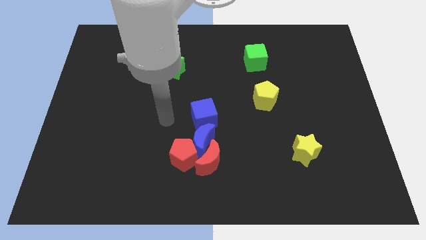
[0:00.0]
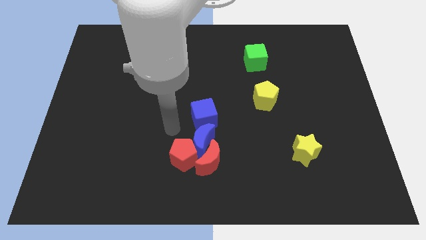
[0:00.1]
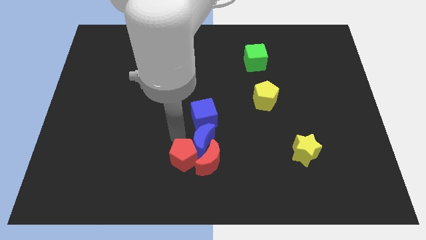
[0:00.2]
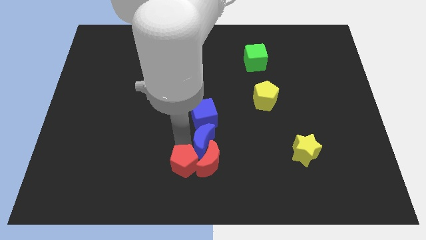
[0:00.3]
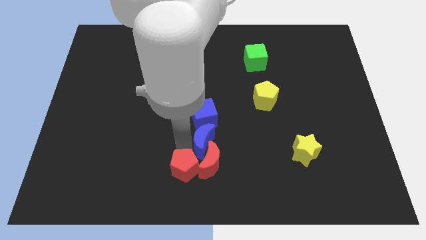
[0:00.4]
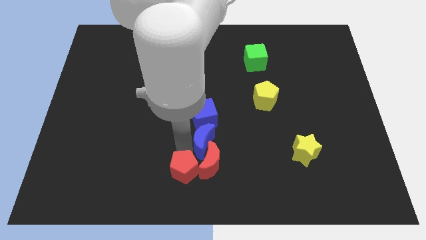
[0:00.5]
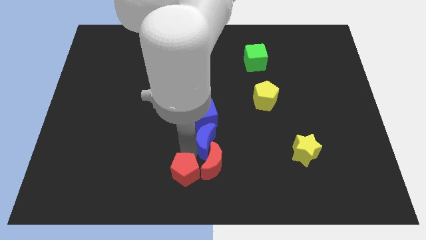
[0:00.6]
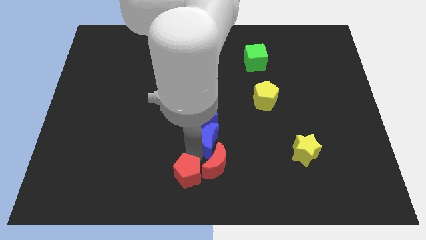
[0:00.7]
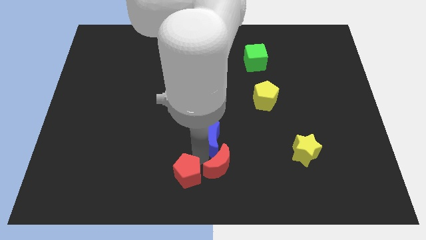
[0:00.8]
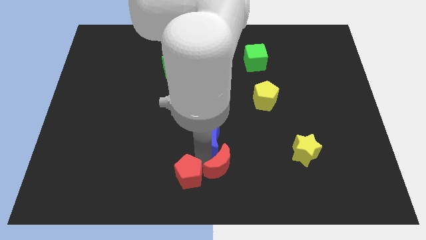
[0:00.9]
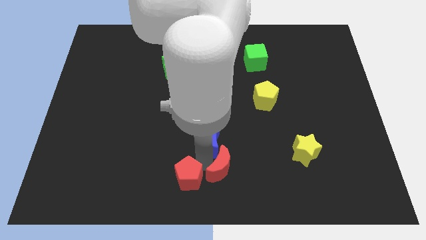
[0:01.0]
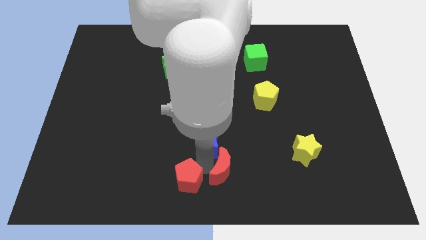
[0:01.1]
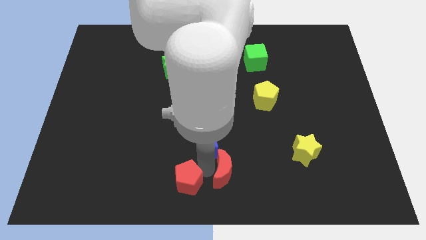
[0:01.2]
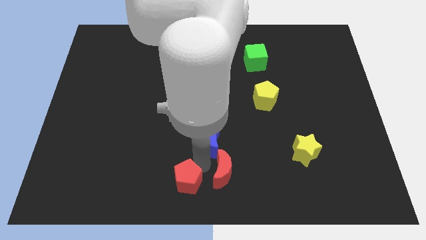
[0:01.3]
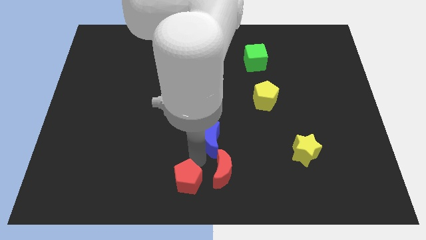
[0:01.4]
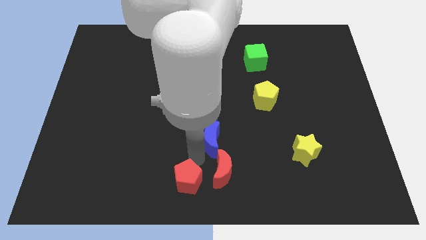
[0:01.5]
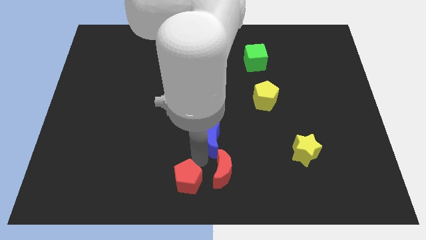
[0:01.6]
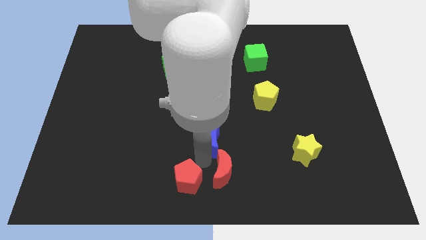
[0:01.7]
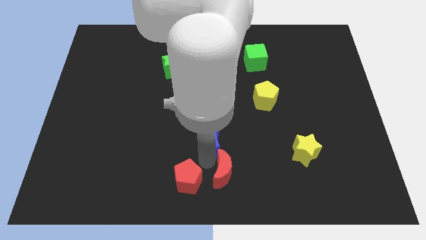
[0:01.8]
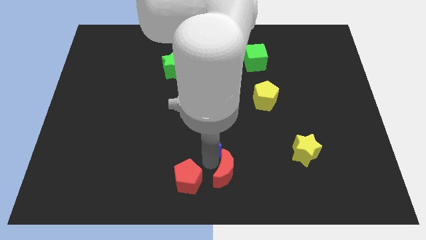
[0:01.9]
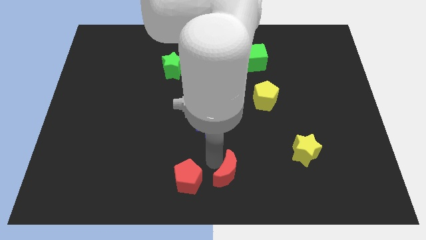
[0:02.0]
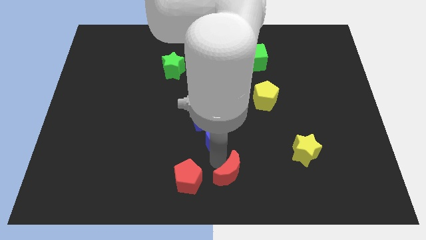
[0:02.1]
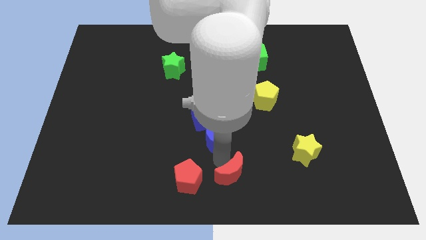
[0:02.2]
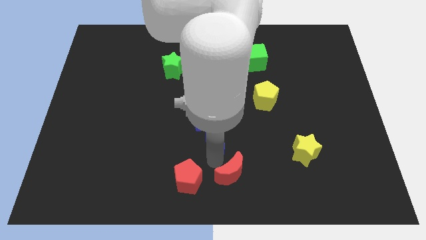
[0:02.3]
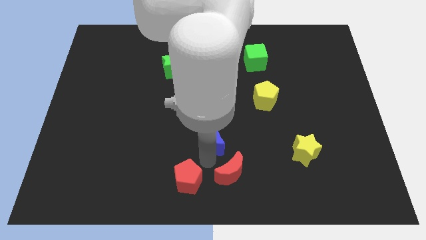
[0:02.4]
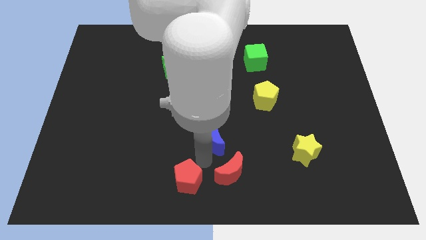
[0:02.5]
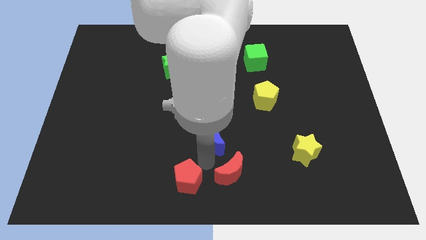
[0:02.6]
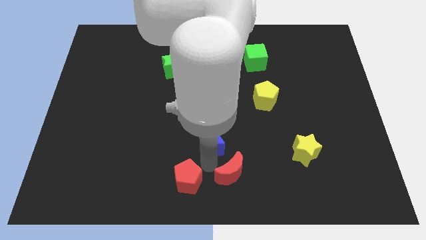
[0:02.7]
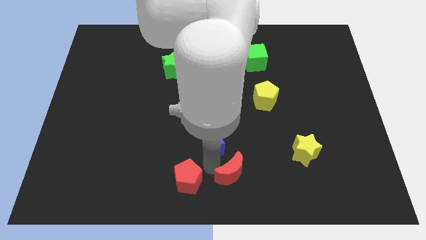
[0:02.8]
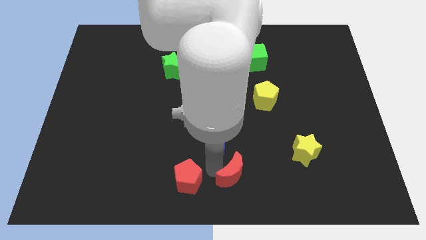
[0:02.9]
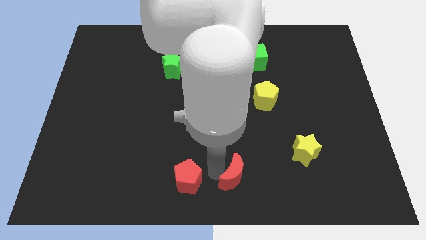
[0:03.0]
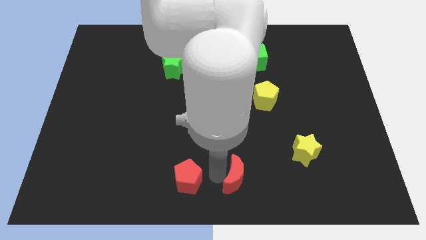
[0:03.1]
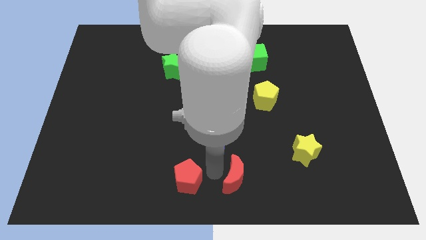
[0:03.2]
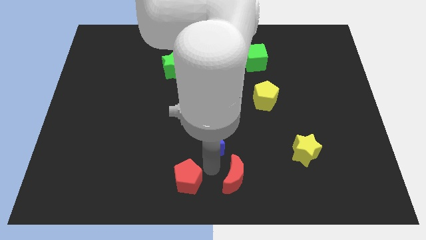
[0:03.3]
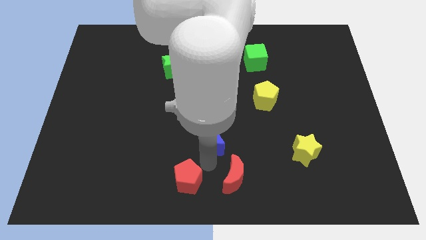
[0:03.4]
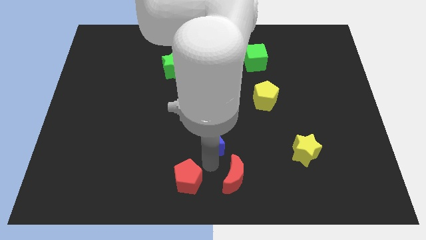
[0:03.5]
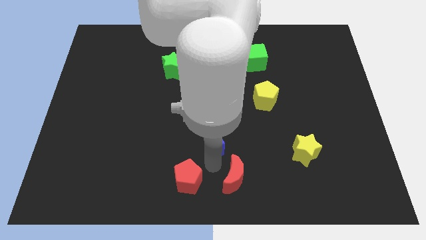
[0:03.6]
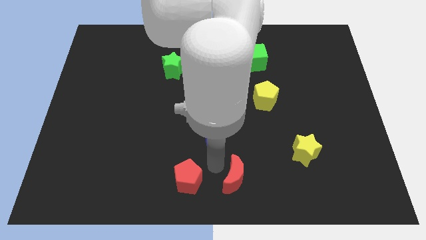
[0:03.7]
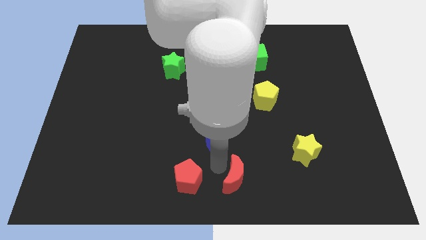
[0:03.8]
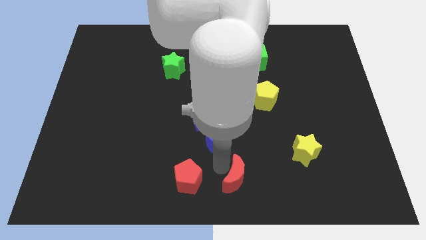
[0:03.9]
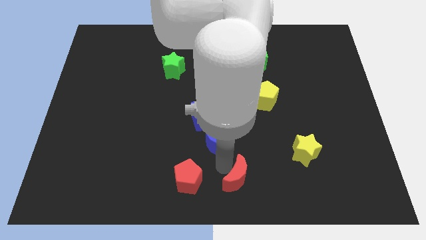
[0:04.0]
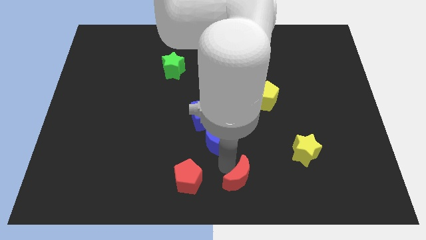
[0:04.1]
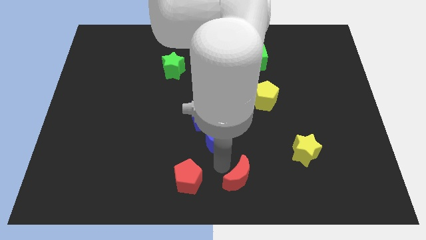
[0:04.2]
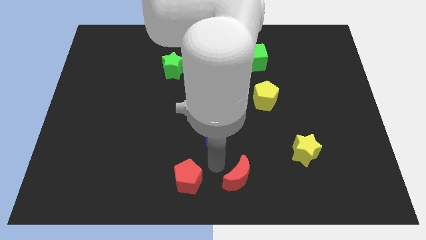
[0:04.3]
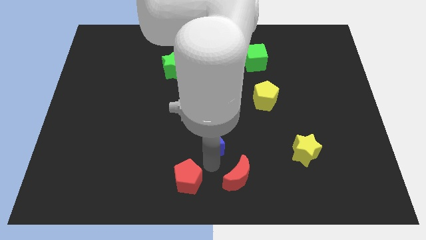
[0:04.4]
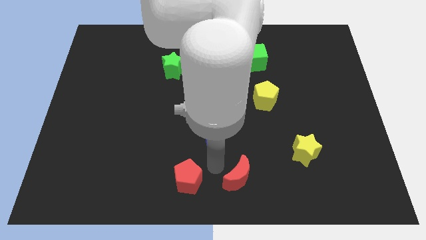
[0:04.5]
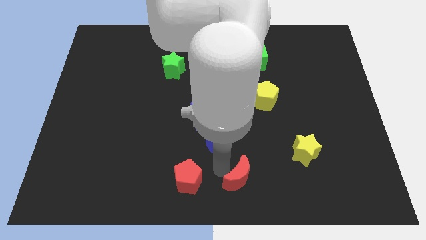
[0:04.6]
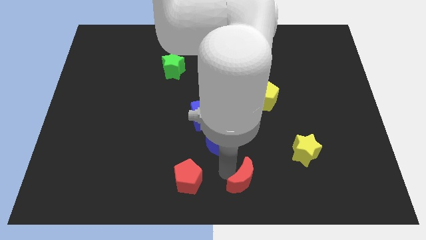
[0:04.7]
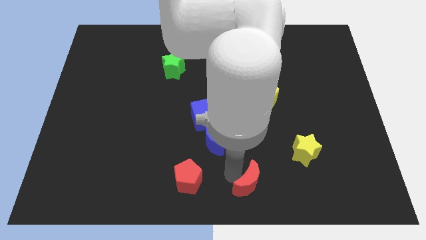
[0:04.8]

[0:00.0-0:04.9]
separate the red moon from the blue moon and red pentagon

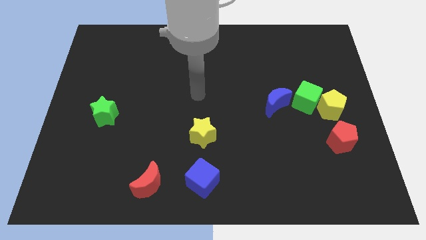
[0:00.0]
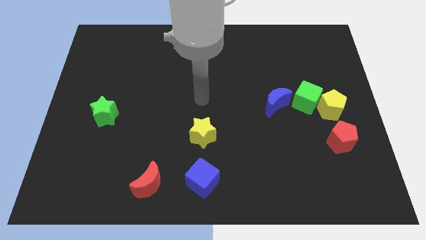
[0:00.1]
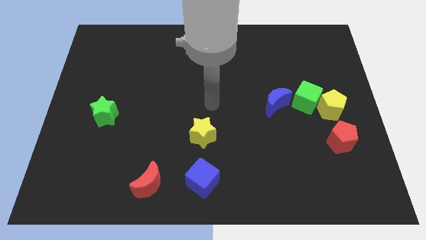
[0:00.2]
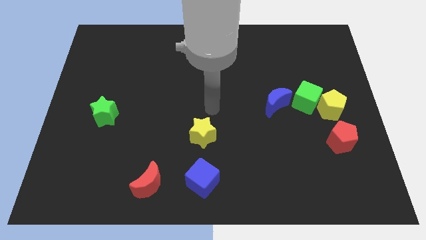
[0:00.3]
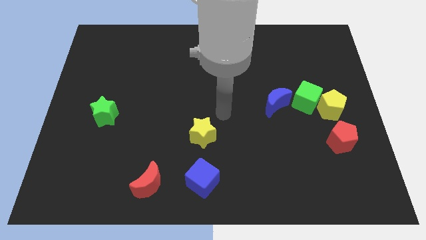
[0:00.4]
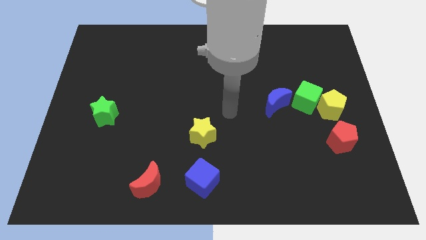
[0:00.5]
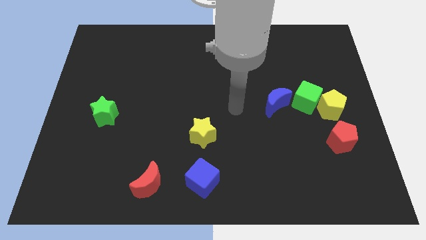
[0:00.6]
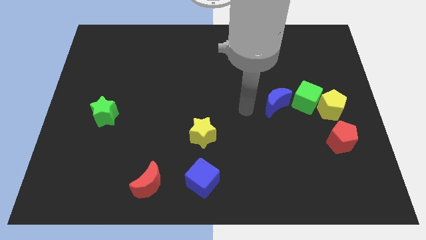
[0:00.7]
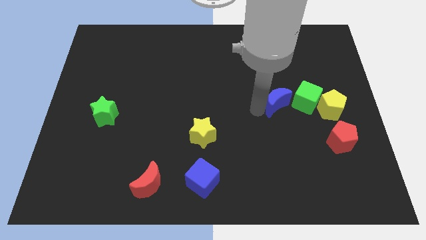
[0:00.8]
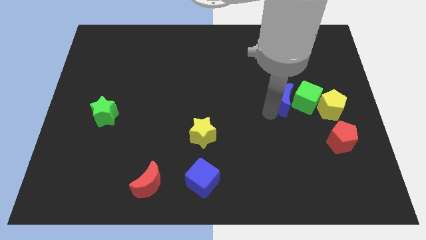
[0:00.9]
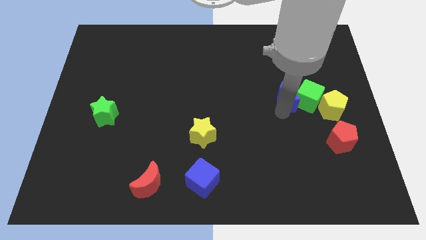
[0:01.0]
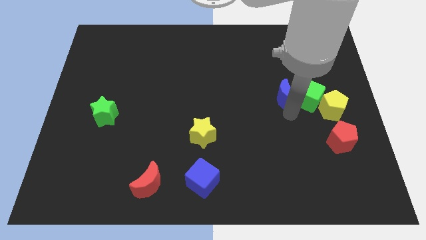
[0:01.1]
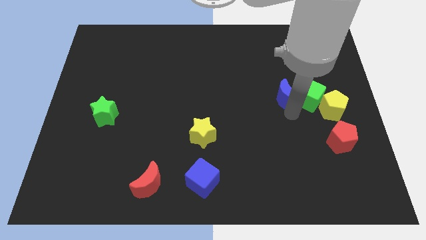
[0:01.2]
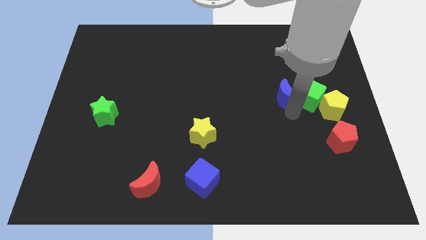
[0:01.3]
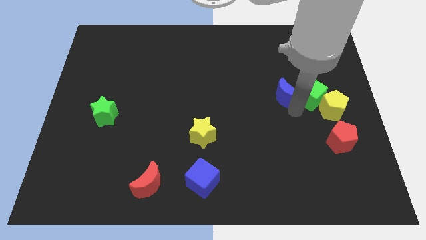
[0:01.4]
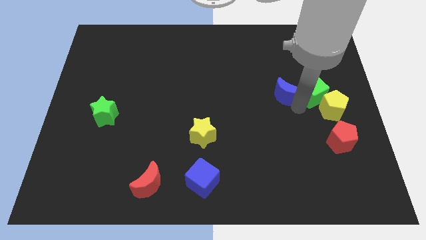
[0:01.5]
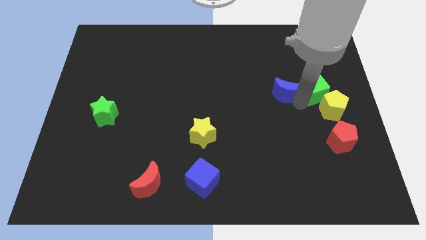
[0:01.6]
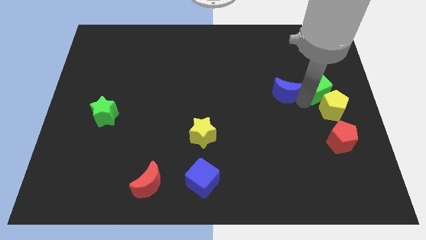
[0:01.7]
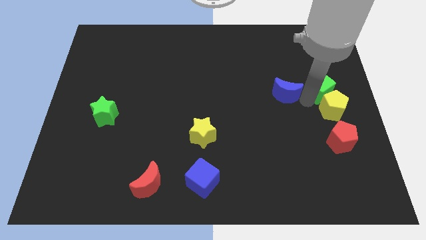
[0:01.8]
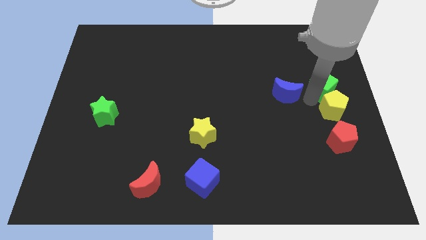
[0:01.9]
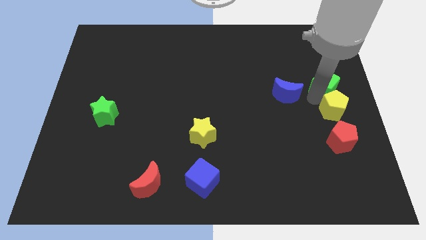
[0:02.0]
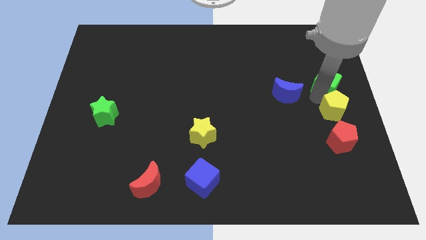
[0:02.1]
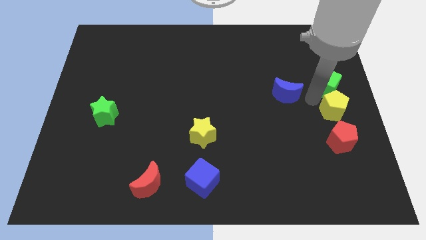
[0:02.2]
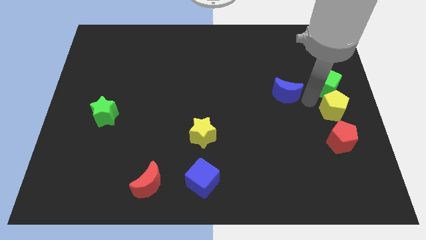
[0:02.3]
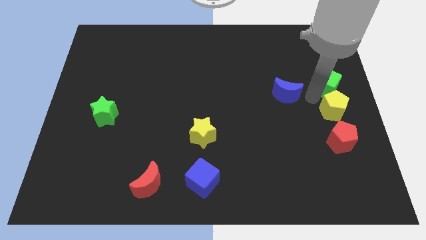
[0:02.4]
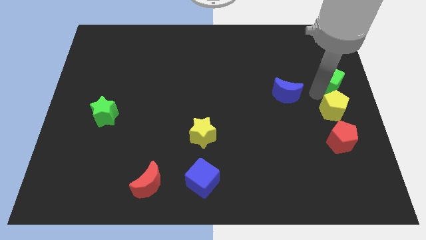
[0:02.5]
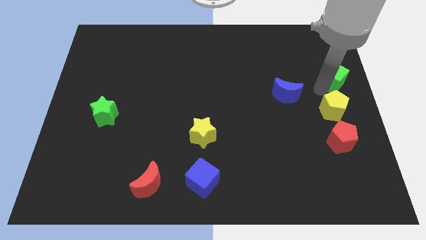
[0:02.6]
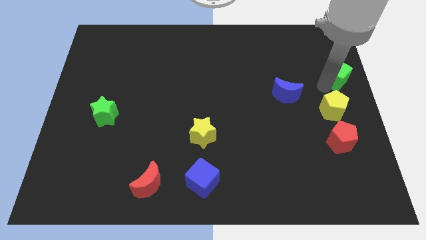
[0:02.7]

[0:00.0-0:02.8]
move the green cube away from the yellow pentagon and blue moon

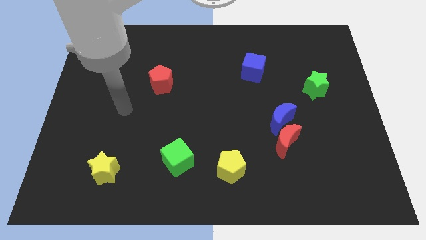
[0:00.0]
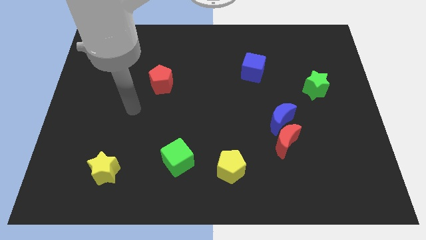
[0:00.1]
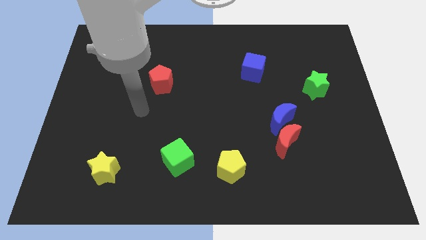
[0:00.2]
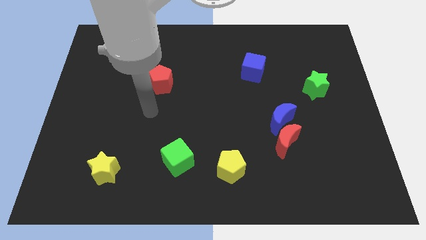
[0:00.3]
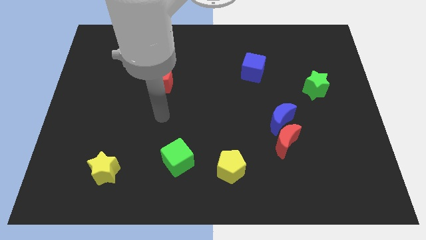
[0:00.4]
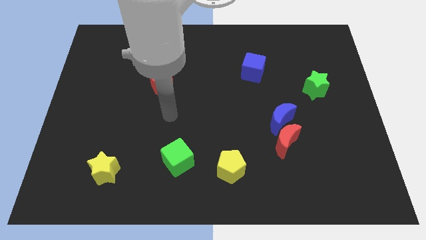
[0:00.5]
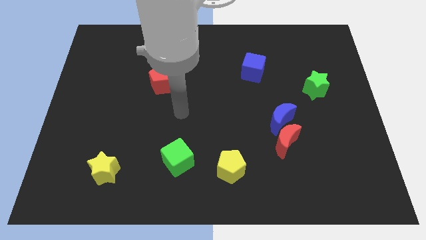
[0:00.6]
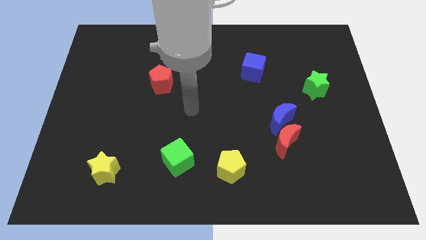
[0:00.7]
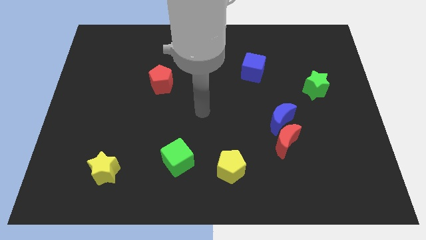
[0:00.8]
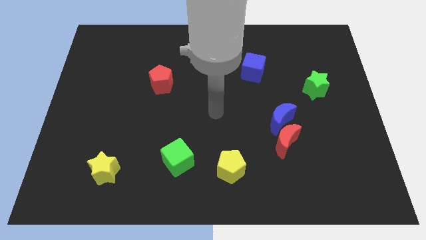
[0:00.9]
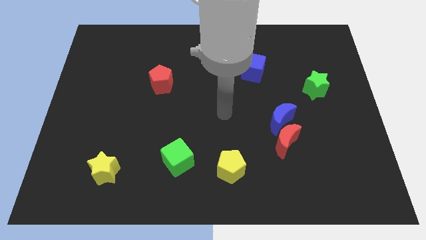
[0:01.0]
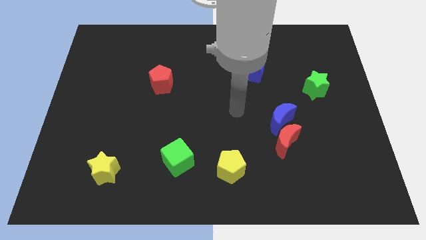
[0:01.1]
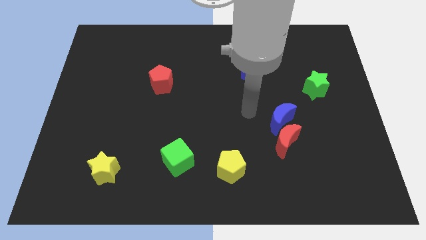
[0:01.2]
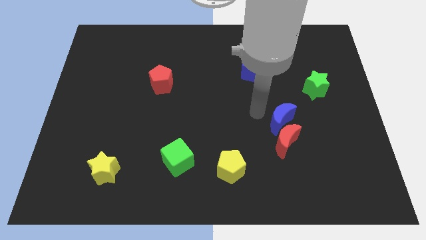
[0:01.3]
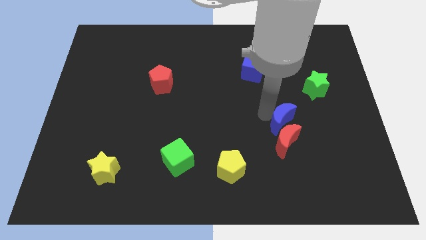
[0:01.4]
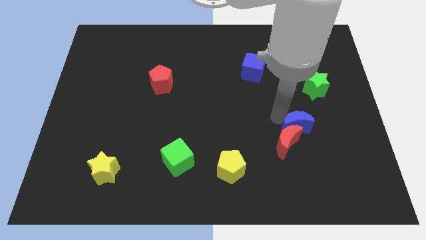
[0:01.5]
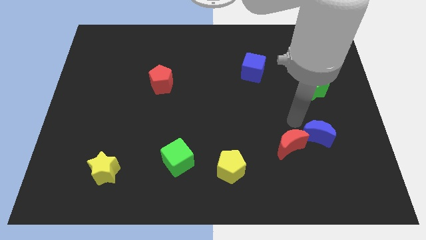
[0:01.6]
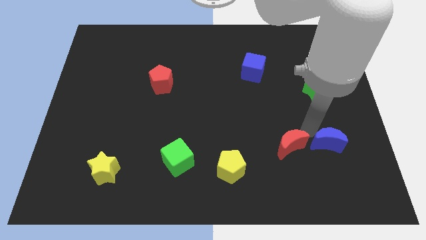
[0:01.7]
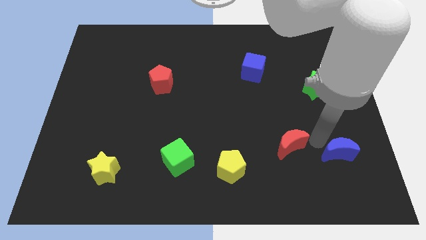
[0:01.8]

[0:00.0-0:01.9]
separate the red moon from the blue moon
